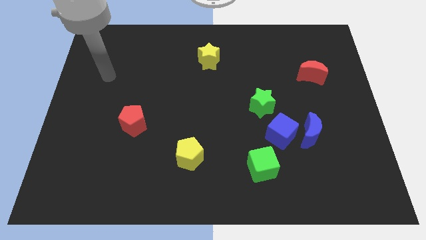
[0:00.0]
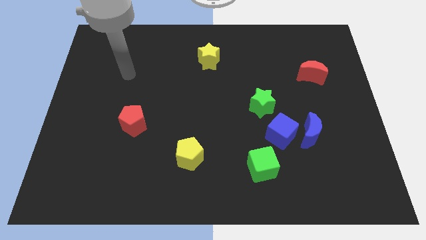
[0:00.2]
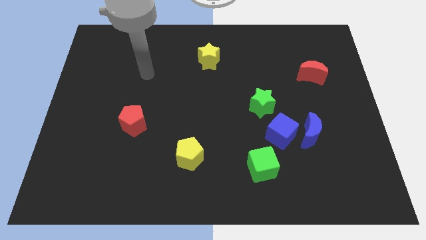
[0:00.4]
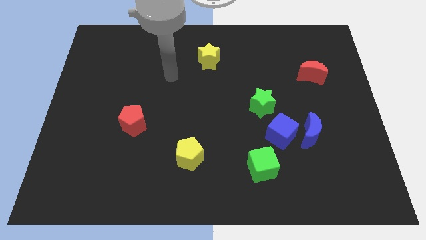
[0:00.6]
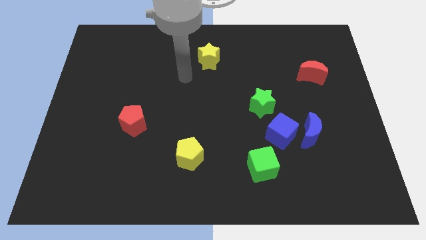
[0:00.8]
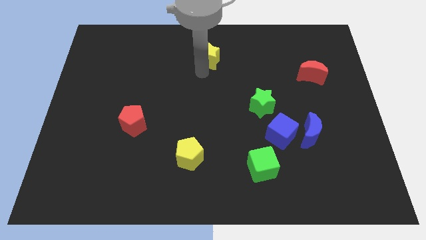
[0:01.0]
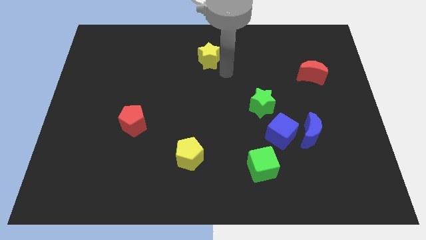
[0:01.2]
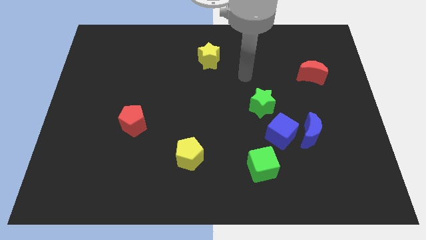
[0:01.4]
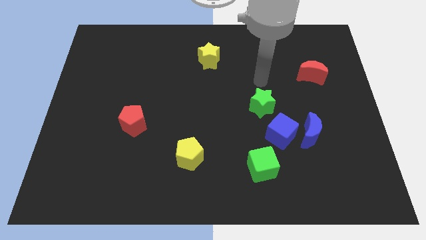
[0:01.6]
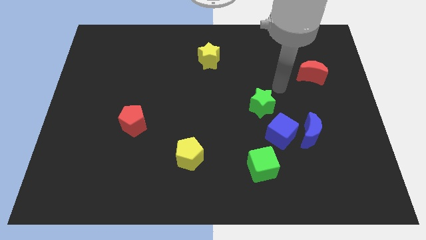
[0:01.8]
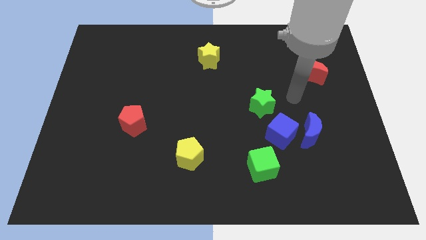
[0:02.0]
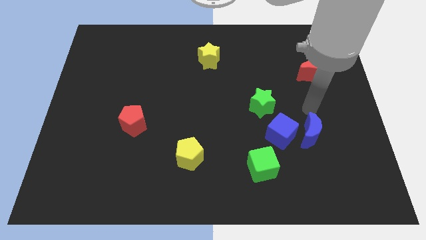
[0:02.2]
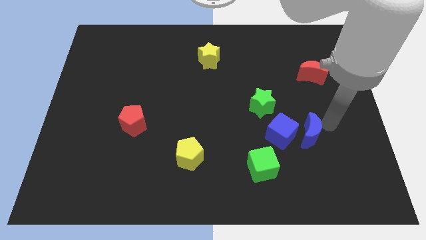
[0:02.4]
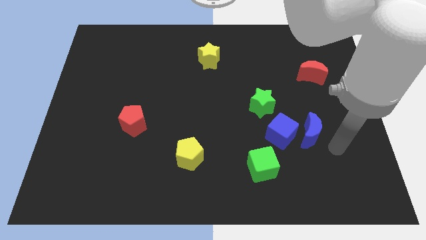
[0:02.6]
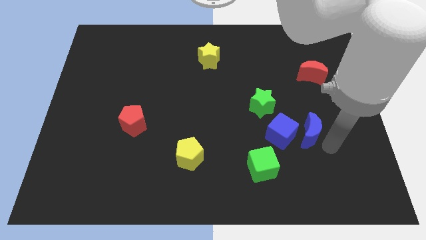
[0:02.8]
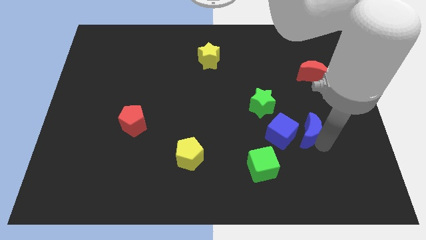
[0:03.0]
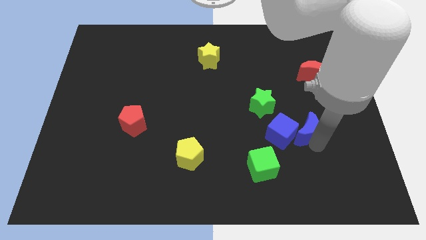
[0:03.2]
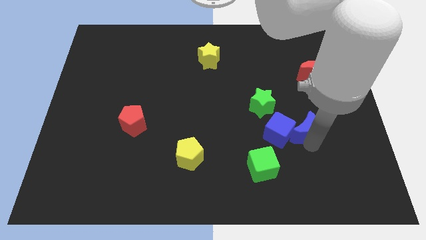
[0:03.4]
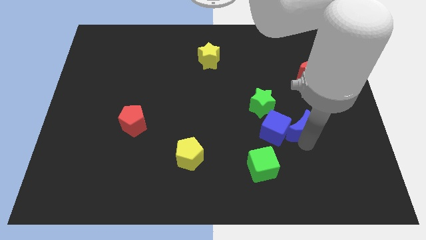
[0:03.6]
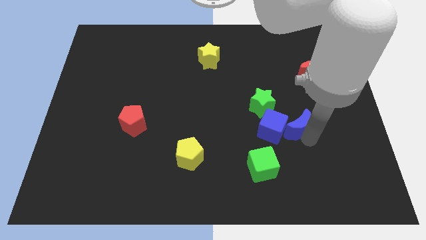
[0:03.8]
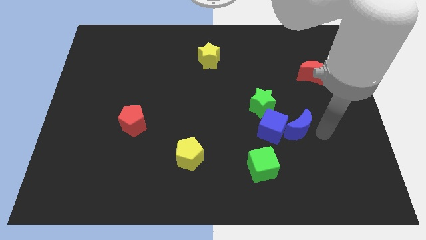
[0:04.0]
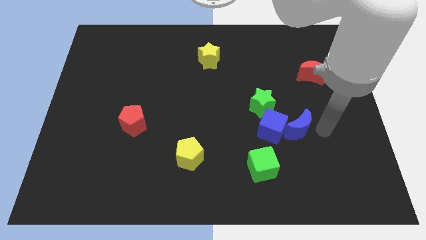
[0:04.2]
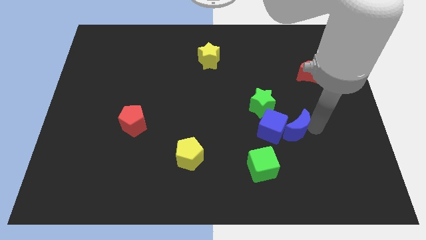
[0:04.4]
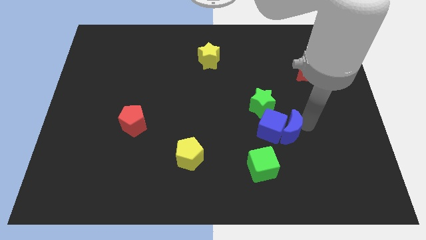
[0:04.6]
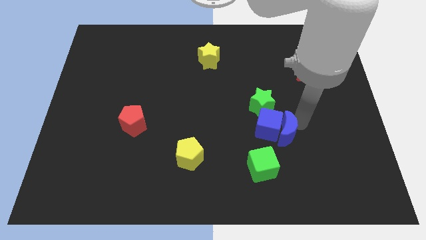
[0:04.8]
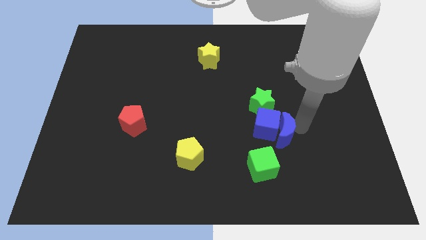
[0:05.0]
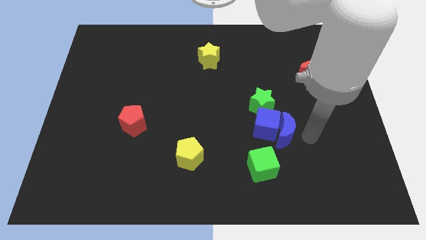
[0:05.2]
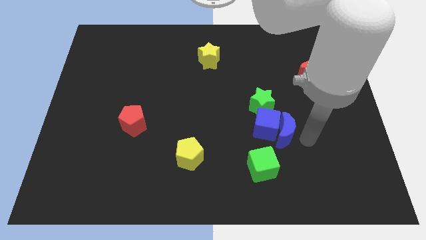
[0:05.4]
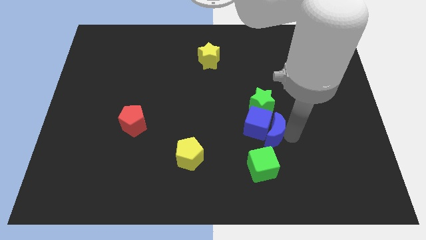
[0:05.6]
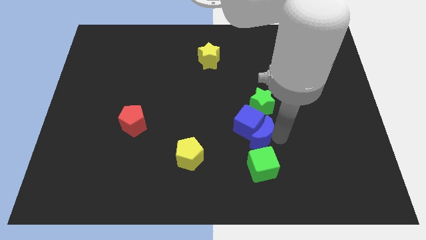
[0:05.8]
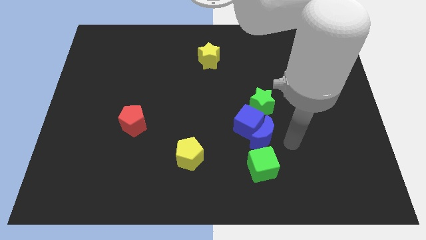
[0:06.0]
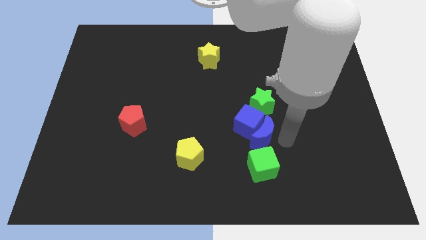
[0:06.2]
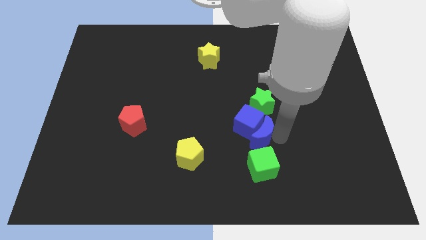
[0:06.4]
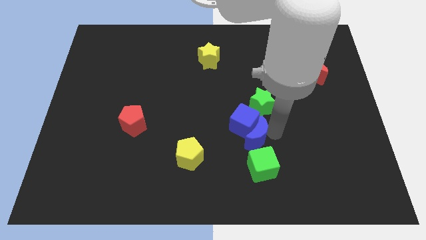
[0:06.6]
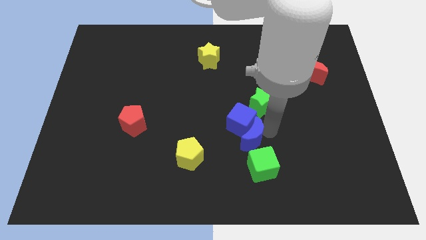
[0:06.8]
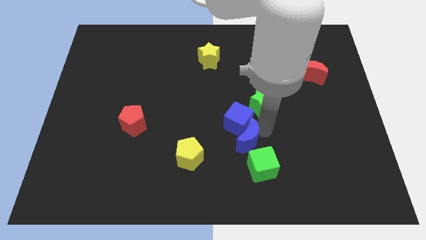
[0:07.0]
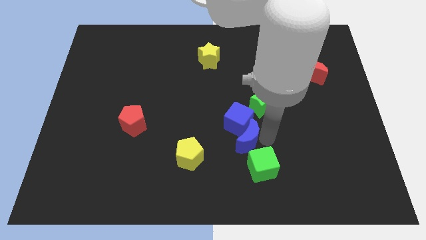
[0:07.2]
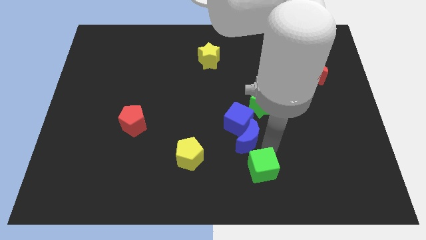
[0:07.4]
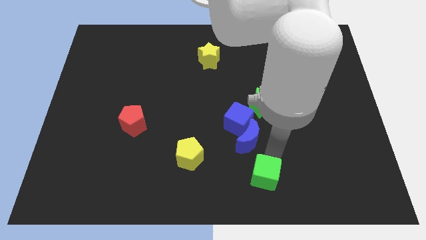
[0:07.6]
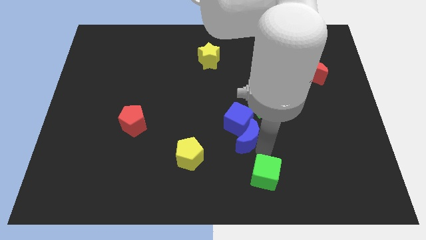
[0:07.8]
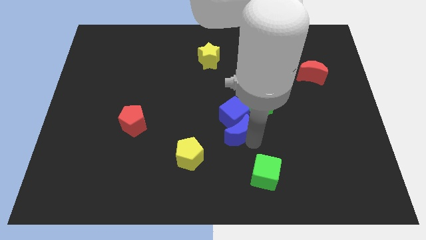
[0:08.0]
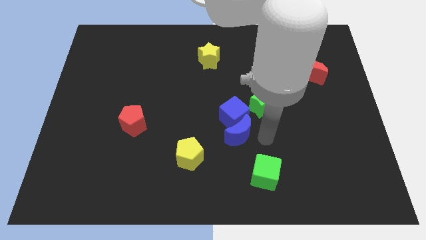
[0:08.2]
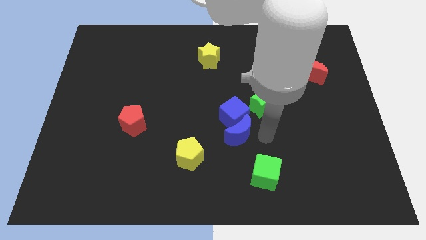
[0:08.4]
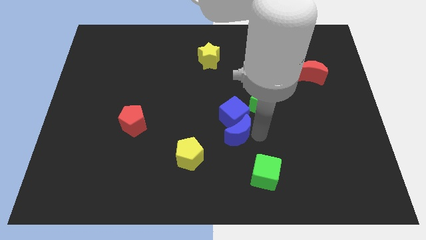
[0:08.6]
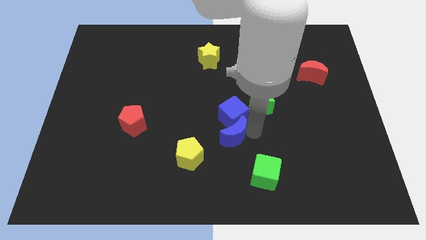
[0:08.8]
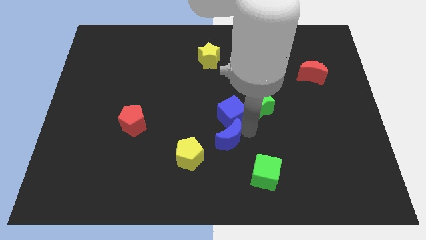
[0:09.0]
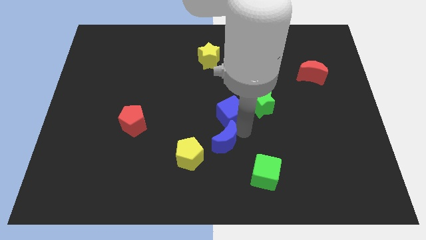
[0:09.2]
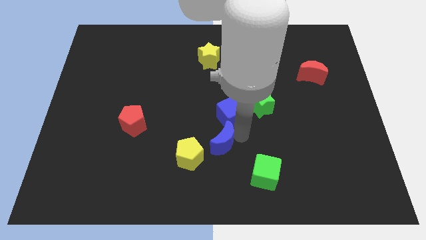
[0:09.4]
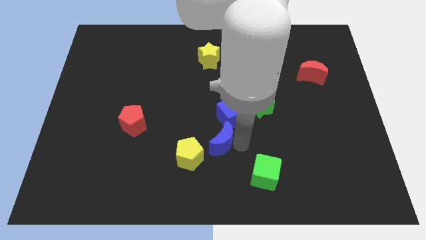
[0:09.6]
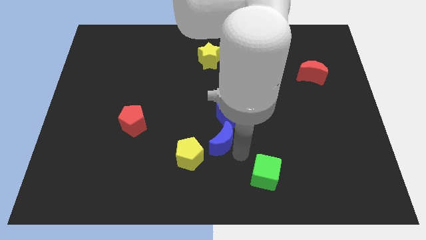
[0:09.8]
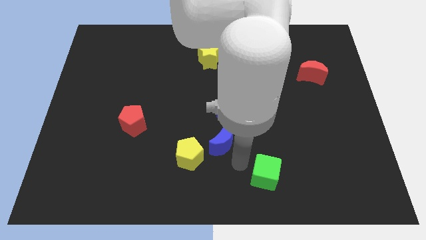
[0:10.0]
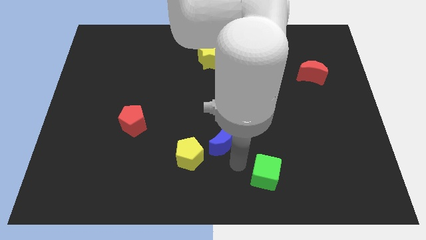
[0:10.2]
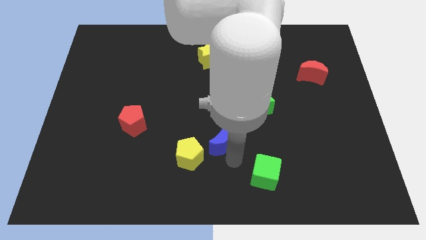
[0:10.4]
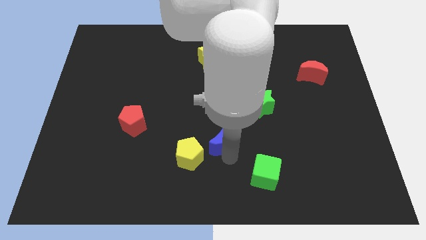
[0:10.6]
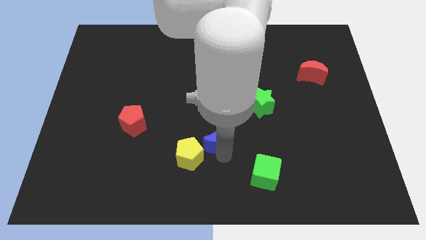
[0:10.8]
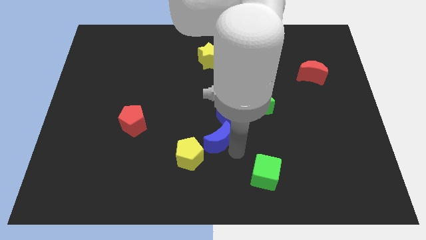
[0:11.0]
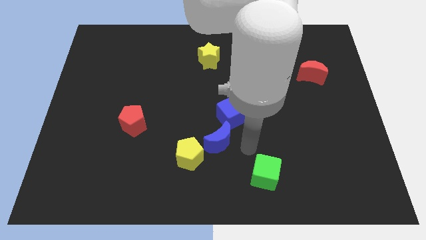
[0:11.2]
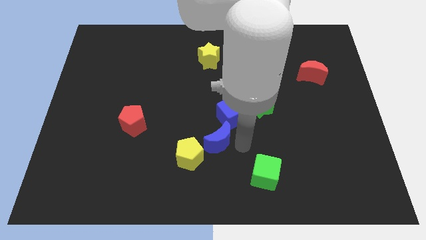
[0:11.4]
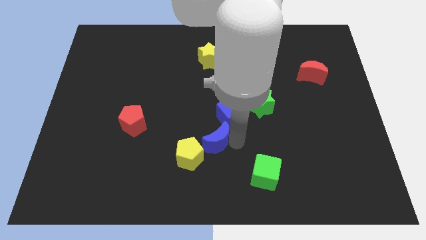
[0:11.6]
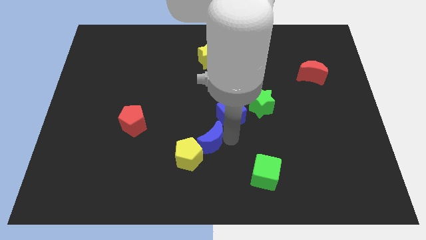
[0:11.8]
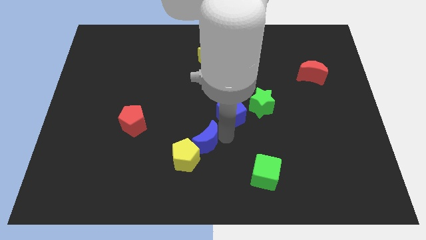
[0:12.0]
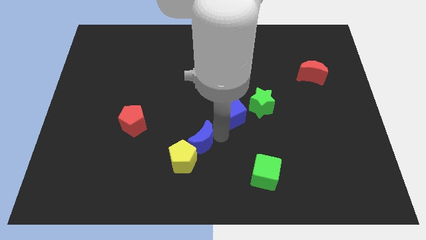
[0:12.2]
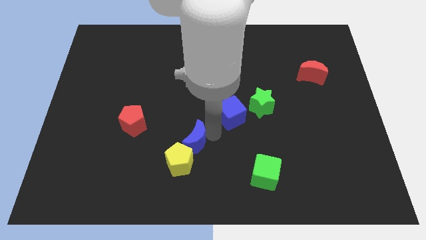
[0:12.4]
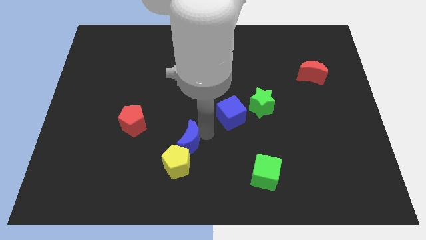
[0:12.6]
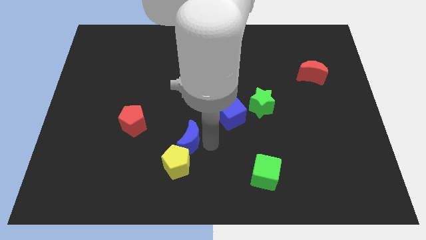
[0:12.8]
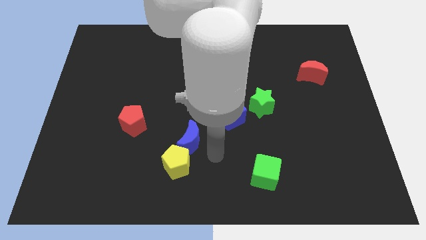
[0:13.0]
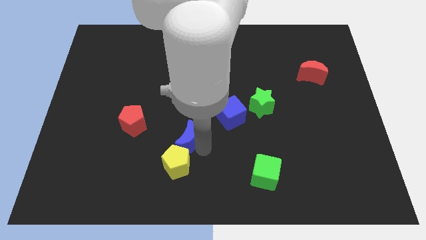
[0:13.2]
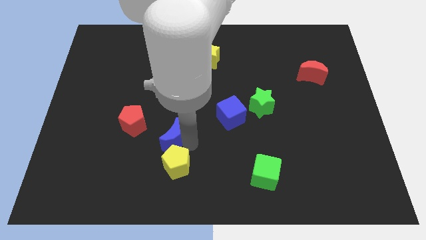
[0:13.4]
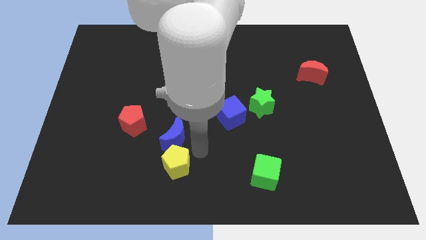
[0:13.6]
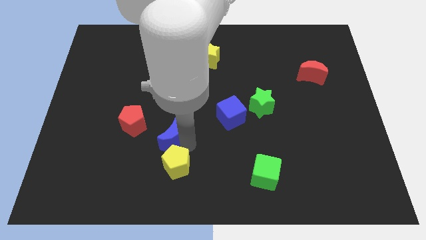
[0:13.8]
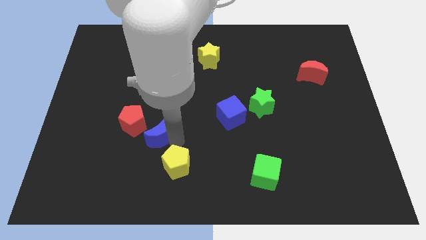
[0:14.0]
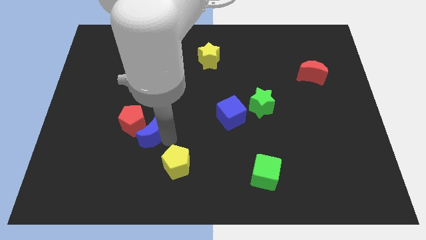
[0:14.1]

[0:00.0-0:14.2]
move the blue moon towards the red pentagon
